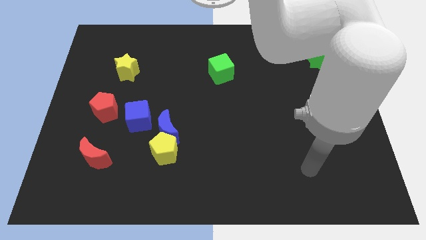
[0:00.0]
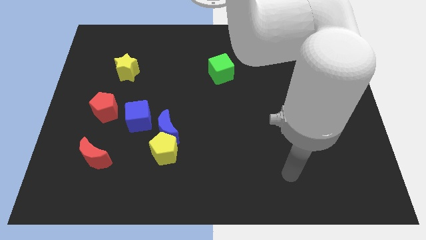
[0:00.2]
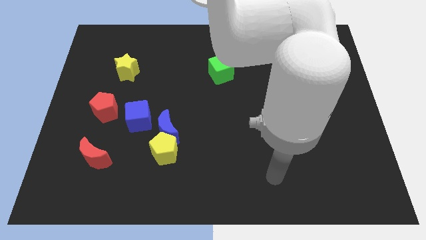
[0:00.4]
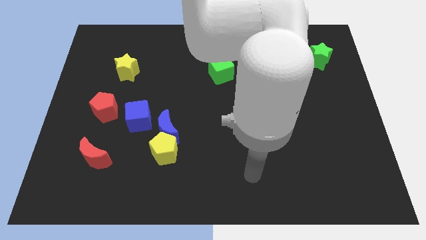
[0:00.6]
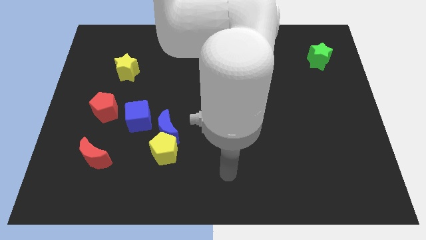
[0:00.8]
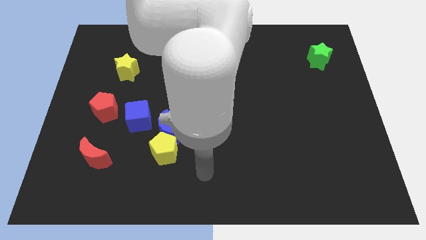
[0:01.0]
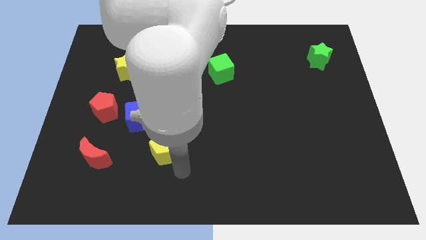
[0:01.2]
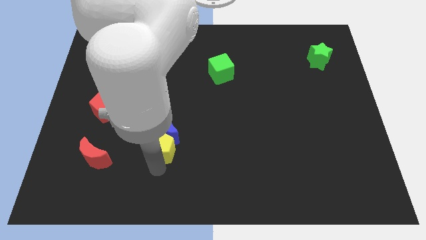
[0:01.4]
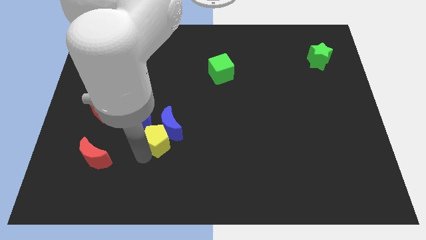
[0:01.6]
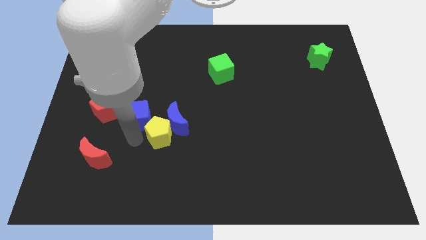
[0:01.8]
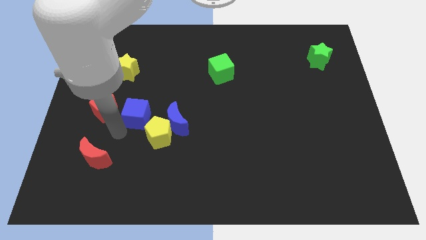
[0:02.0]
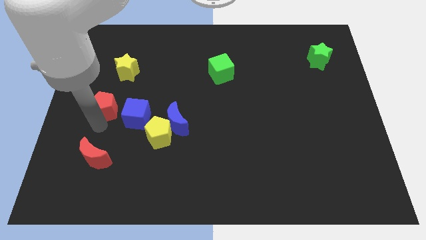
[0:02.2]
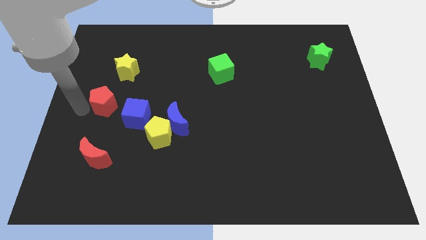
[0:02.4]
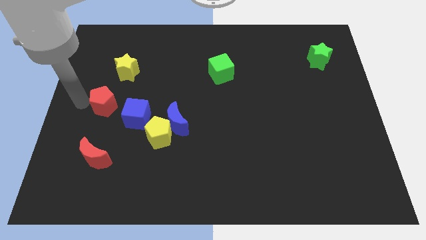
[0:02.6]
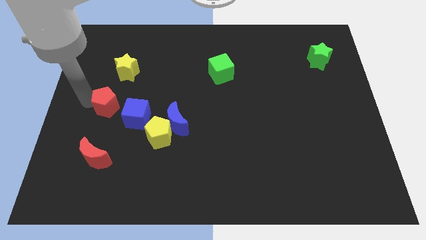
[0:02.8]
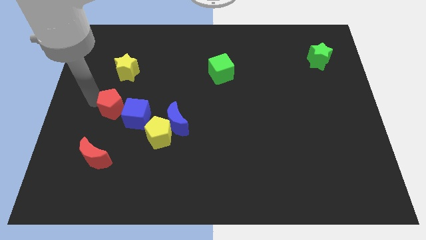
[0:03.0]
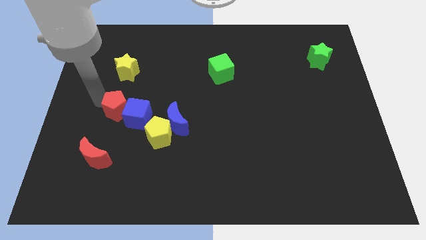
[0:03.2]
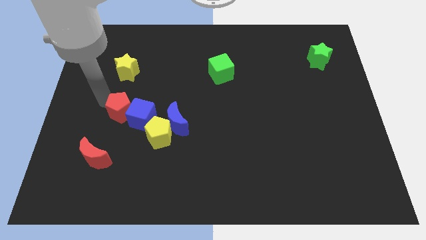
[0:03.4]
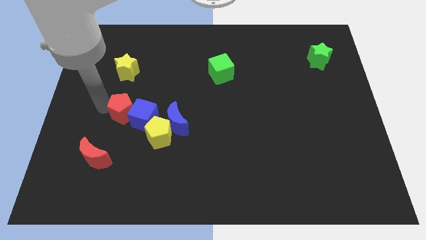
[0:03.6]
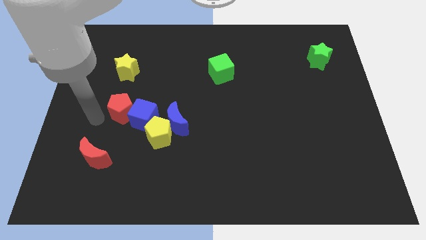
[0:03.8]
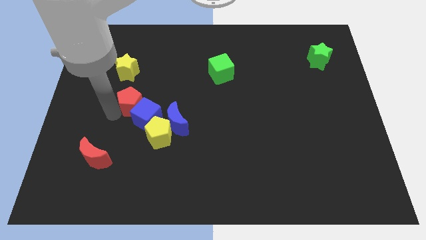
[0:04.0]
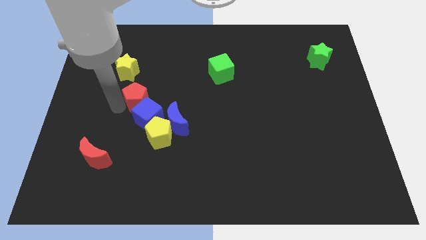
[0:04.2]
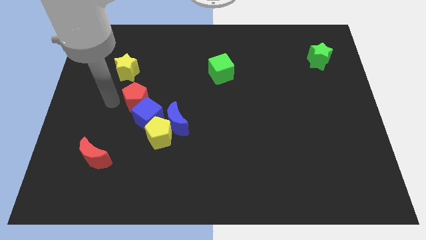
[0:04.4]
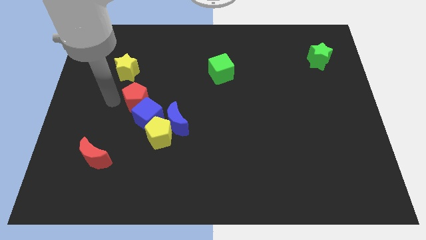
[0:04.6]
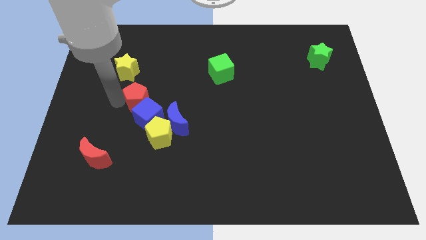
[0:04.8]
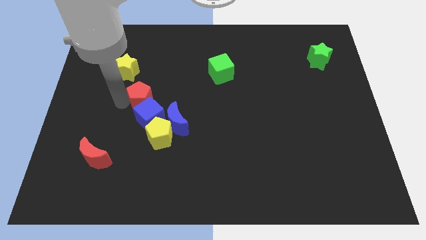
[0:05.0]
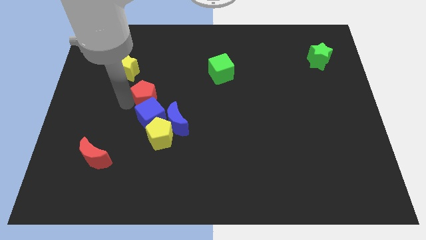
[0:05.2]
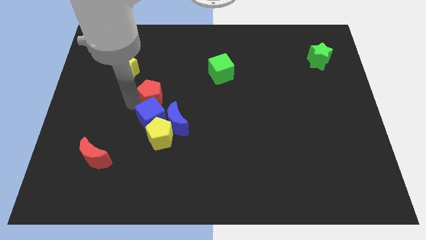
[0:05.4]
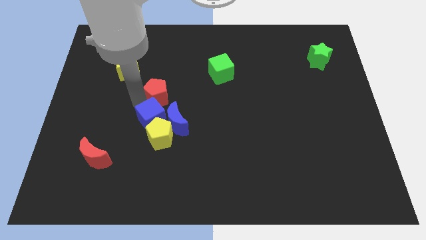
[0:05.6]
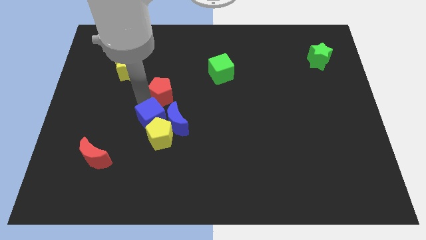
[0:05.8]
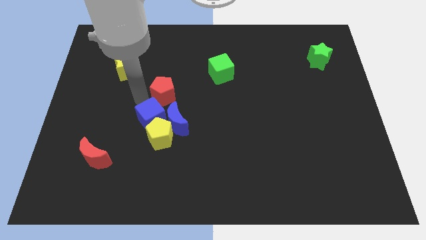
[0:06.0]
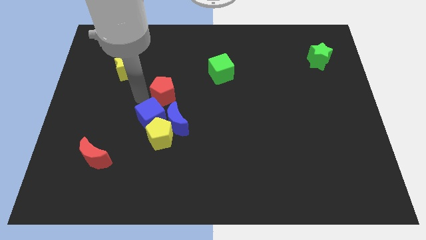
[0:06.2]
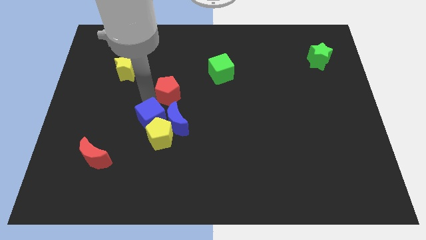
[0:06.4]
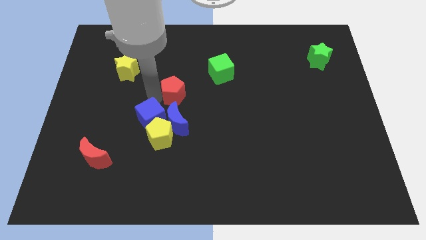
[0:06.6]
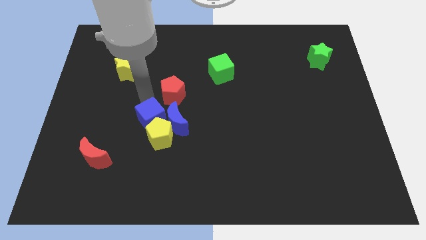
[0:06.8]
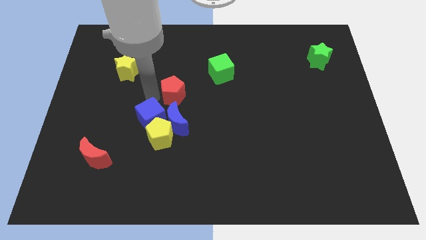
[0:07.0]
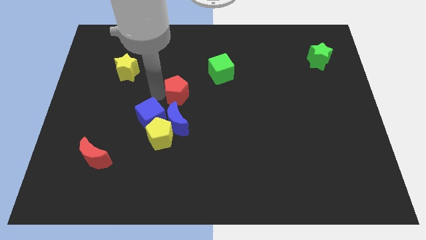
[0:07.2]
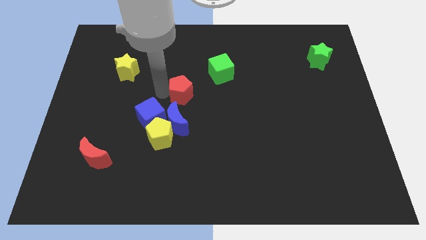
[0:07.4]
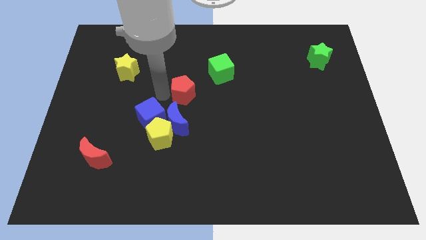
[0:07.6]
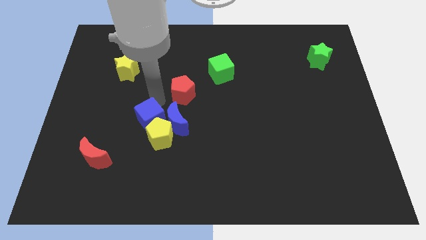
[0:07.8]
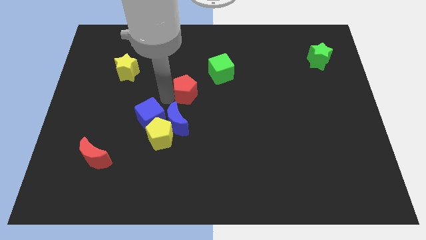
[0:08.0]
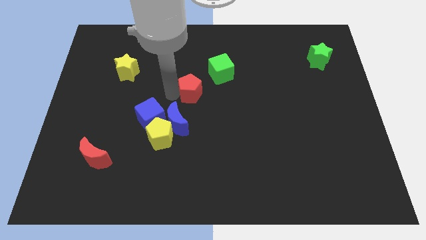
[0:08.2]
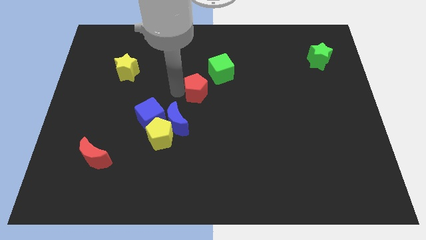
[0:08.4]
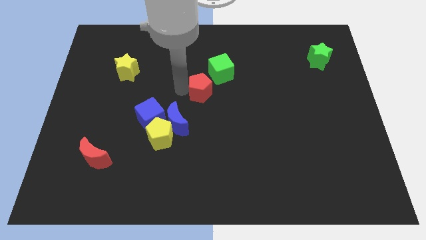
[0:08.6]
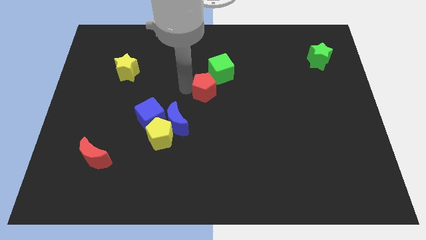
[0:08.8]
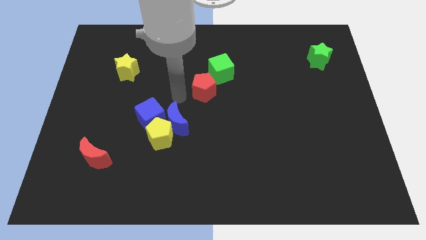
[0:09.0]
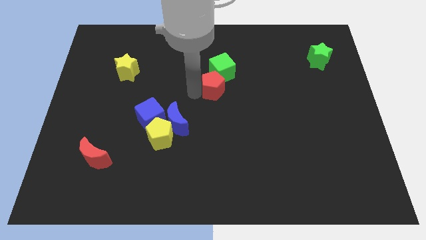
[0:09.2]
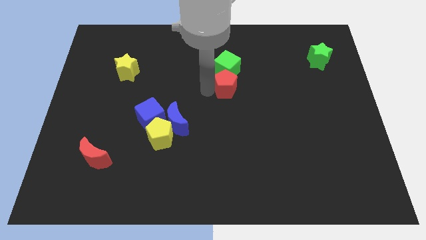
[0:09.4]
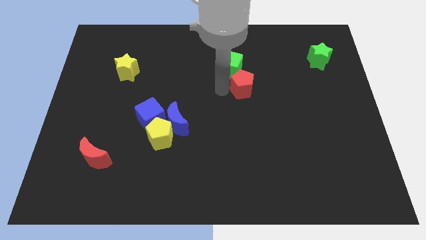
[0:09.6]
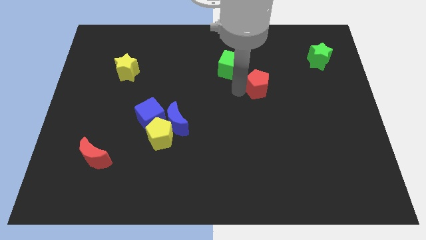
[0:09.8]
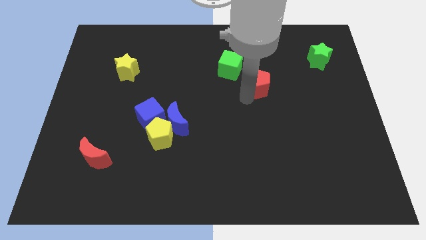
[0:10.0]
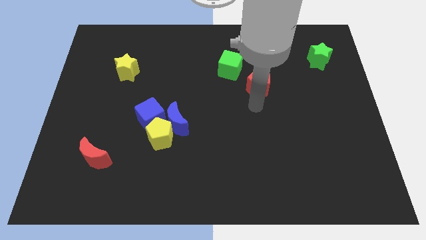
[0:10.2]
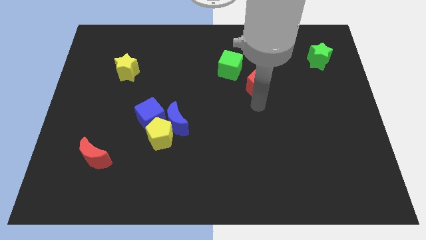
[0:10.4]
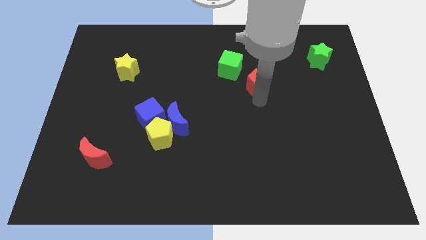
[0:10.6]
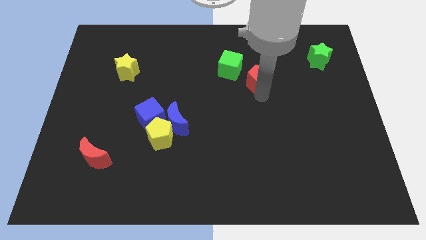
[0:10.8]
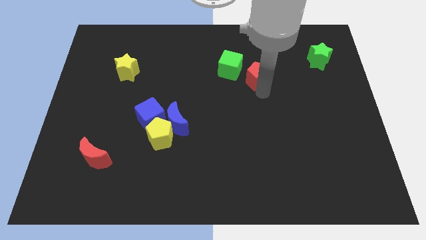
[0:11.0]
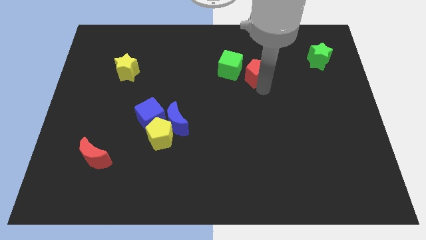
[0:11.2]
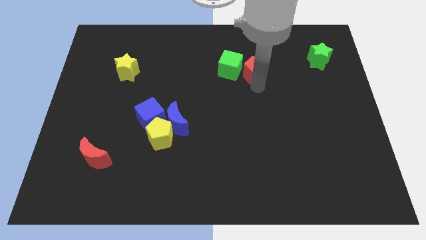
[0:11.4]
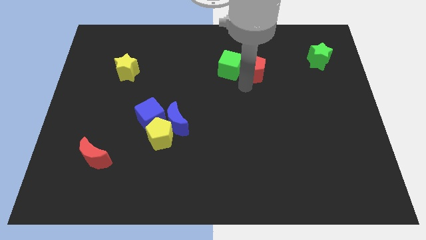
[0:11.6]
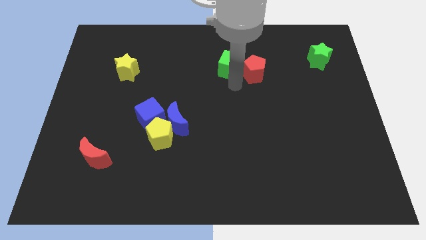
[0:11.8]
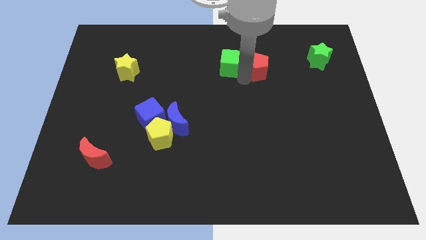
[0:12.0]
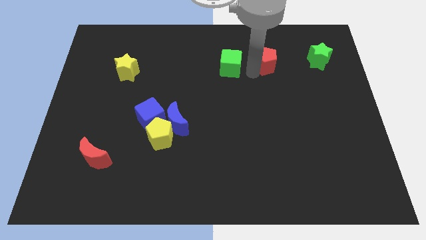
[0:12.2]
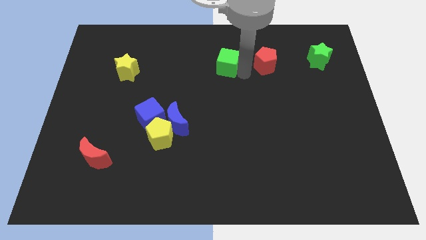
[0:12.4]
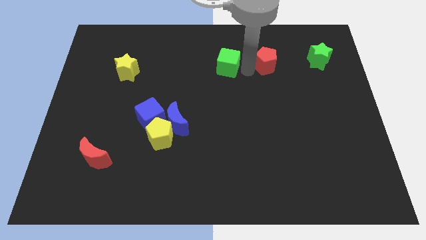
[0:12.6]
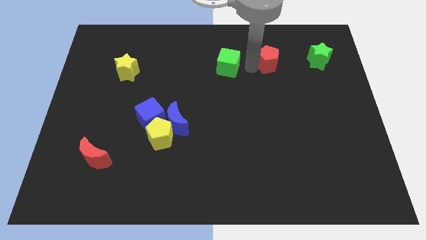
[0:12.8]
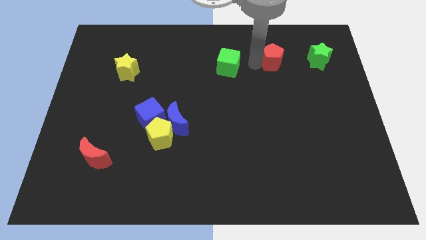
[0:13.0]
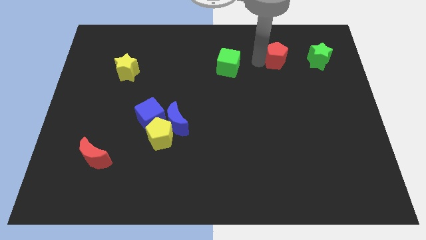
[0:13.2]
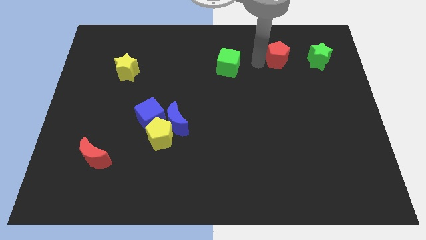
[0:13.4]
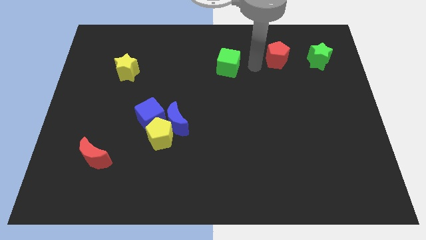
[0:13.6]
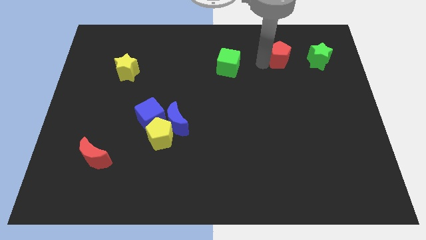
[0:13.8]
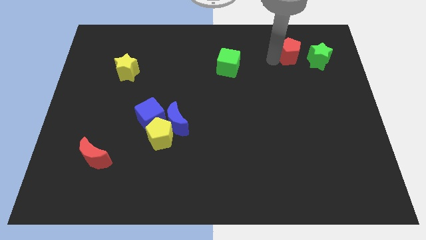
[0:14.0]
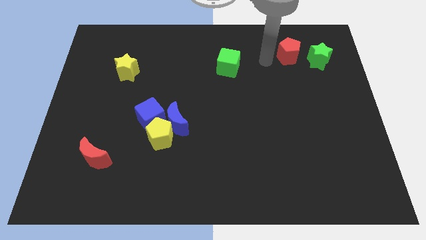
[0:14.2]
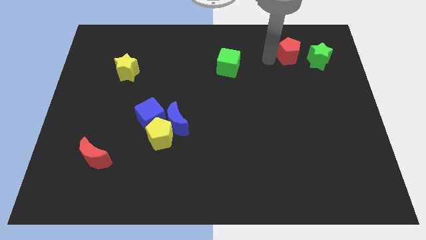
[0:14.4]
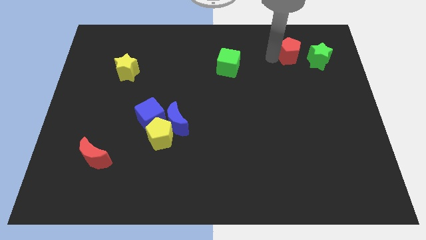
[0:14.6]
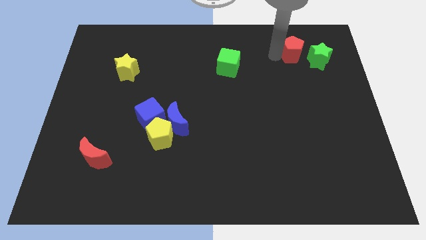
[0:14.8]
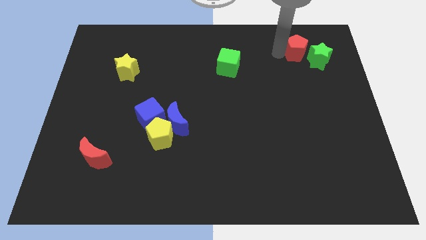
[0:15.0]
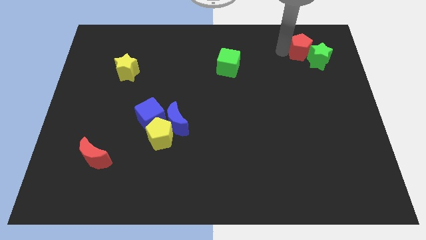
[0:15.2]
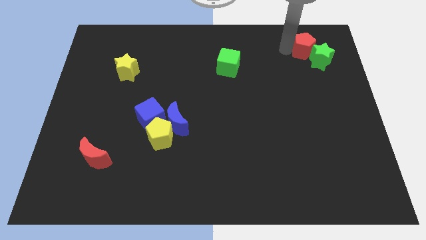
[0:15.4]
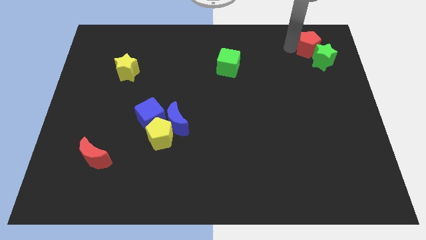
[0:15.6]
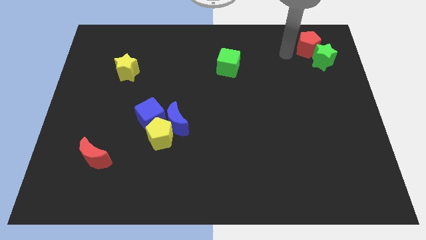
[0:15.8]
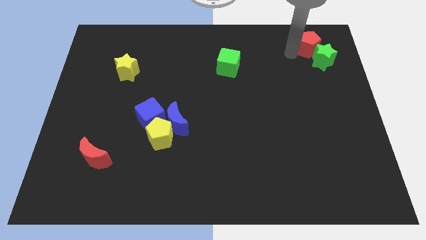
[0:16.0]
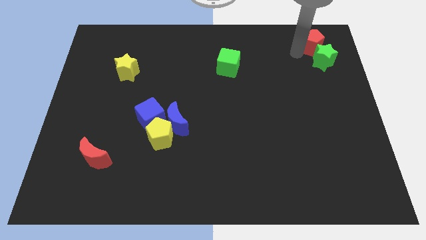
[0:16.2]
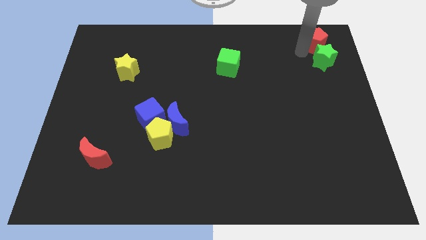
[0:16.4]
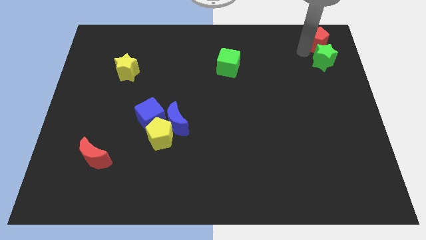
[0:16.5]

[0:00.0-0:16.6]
put the red pentagon to the upper right corner
